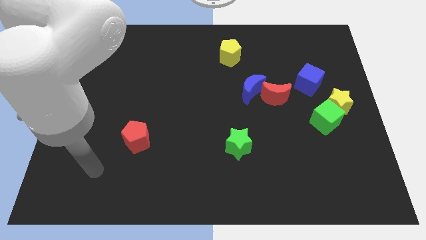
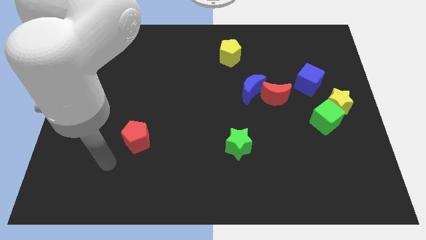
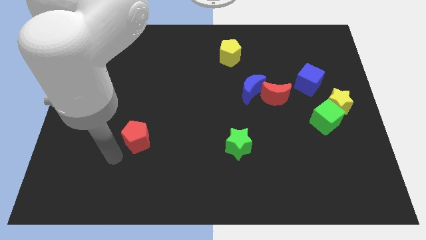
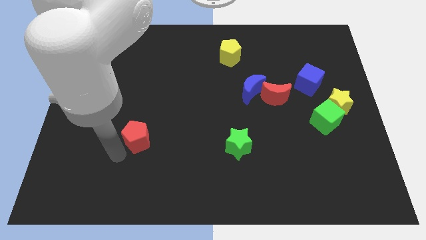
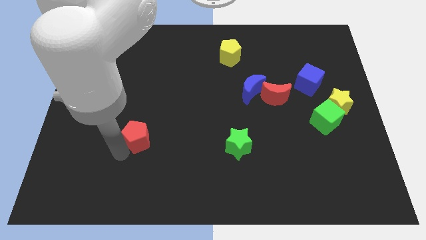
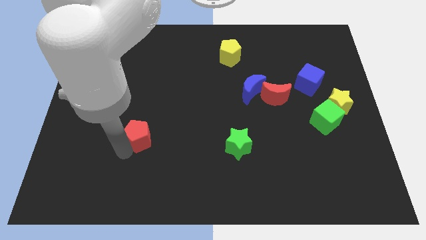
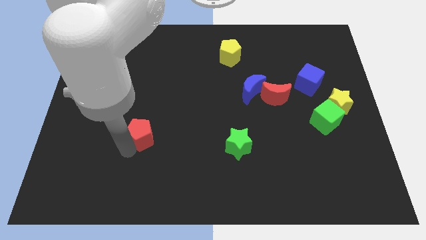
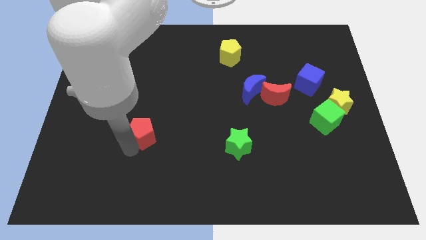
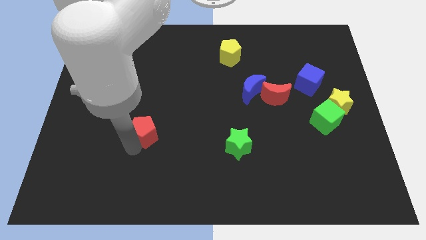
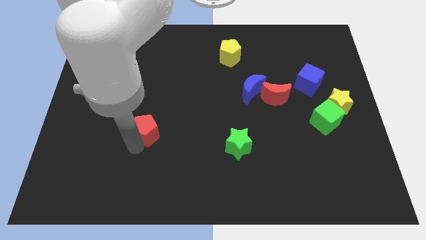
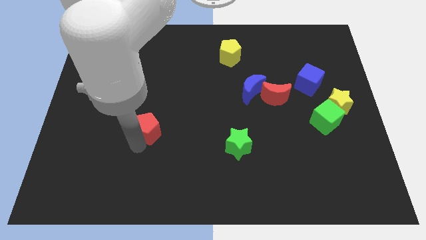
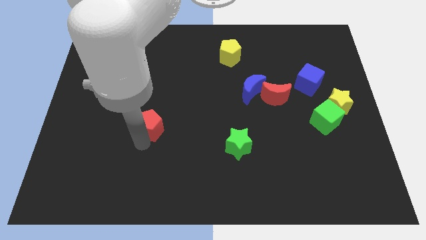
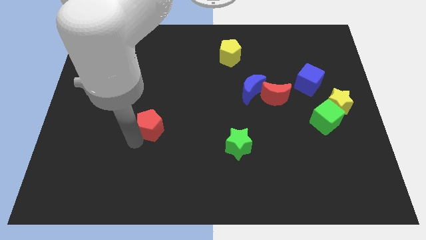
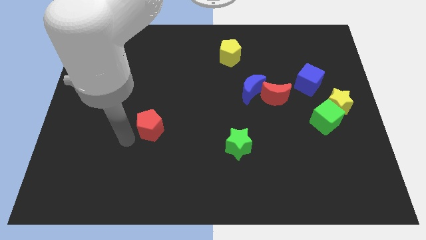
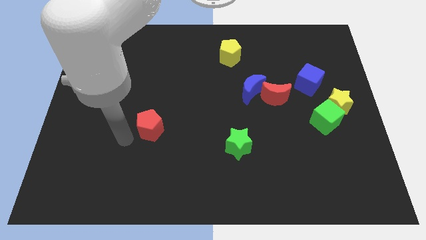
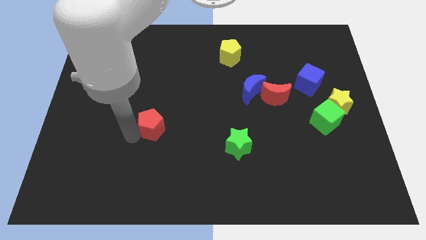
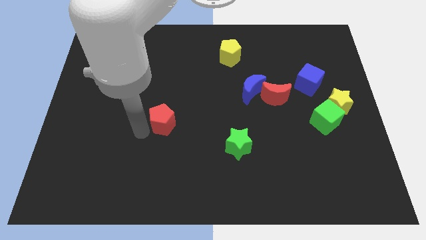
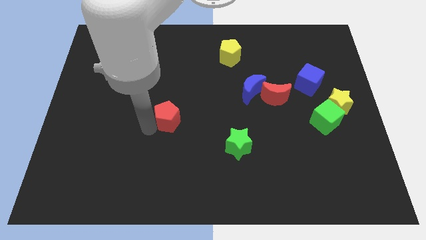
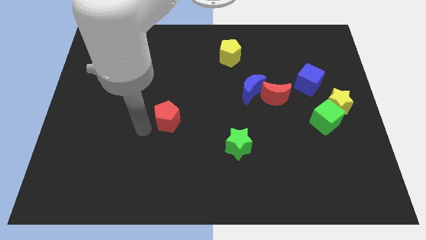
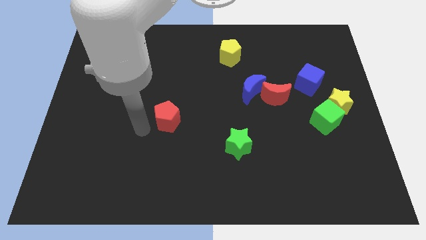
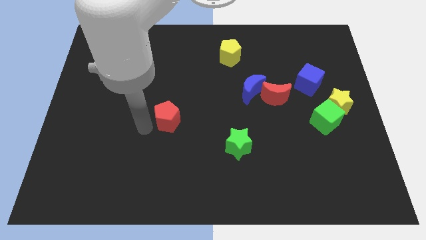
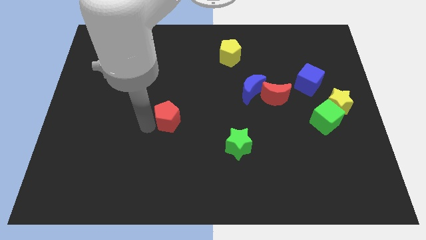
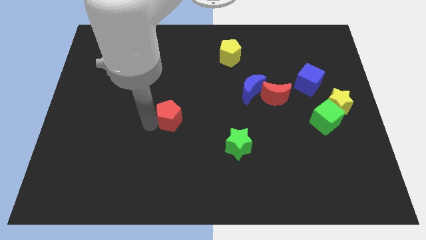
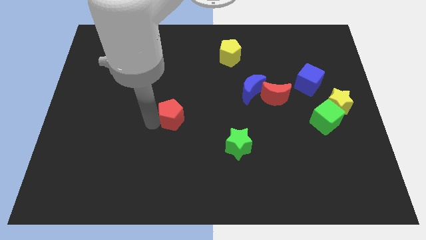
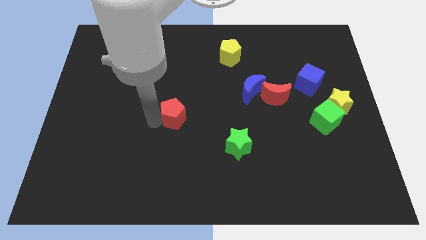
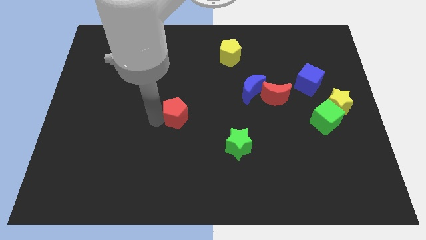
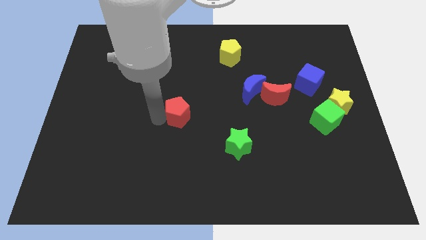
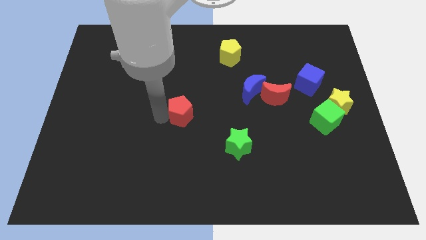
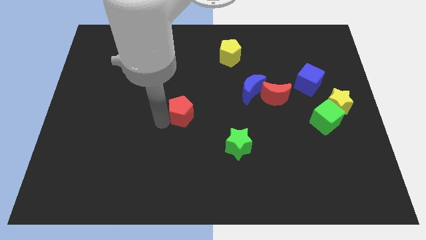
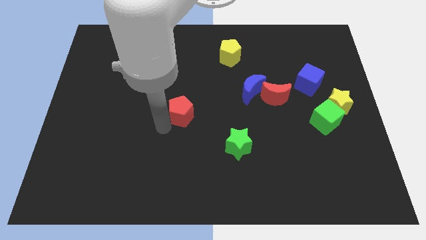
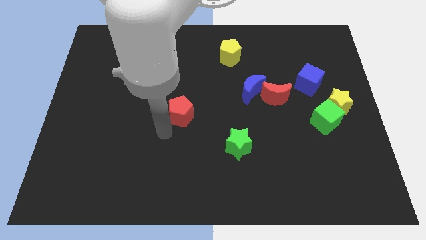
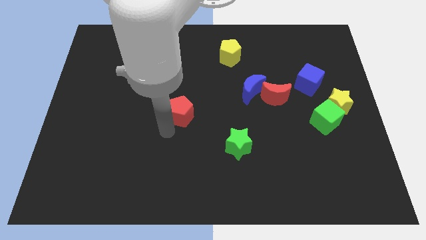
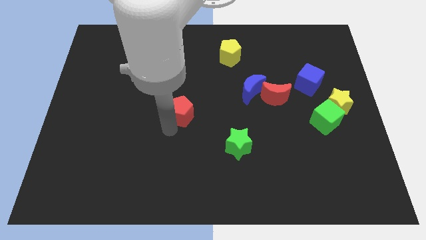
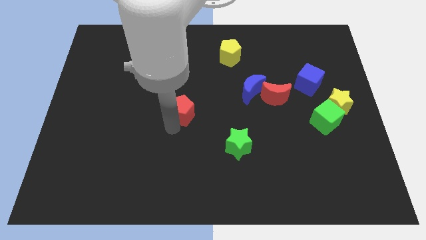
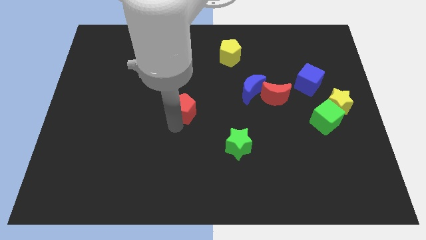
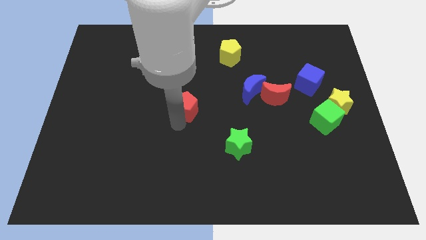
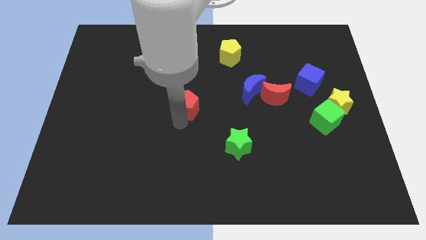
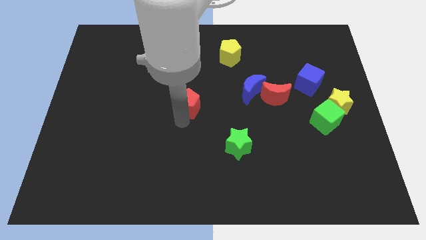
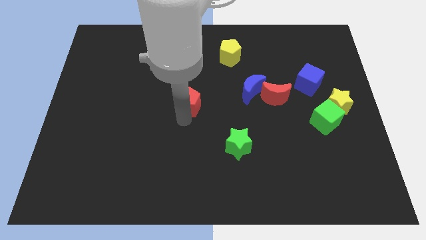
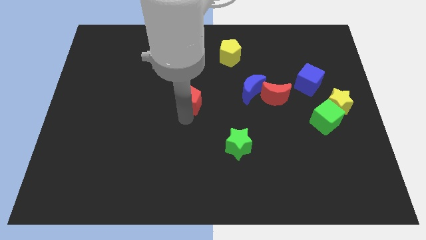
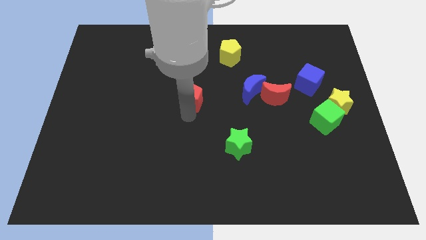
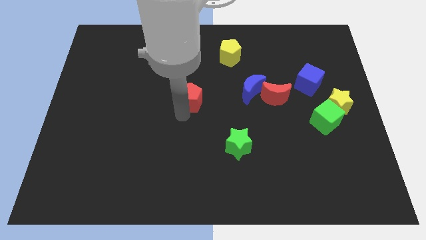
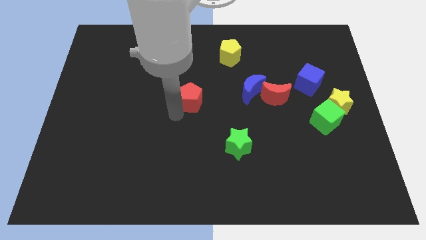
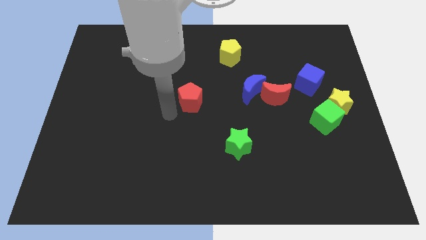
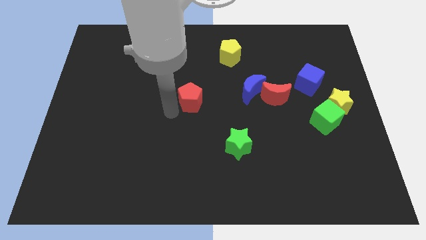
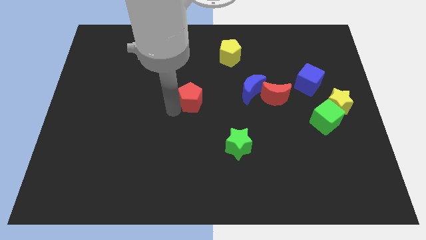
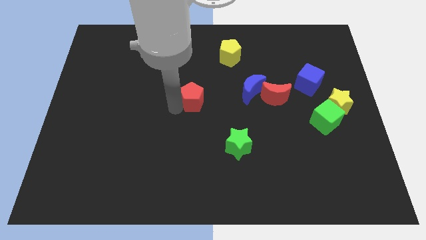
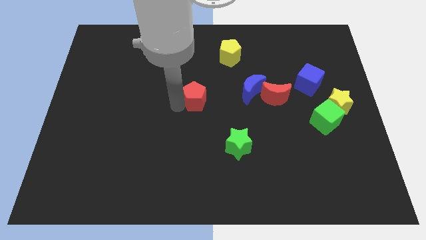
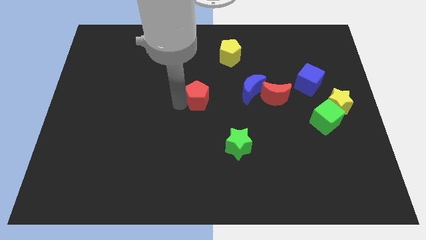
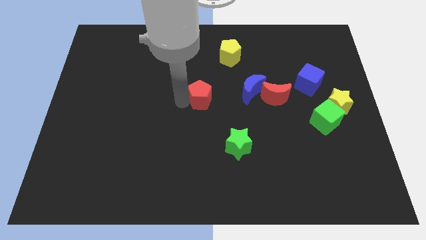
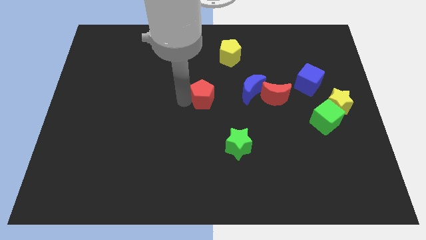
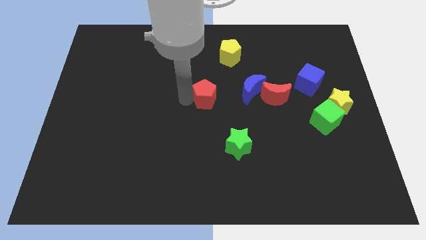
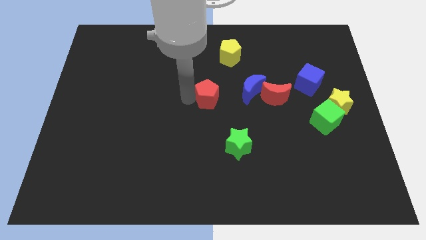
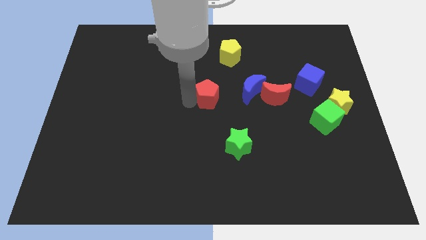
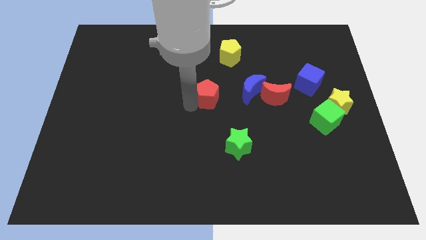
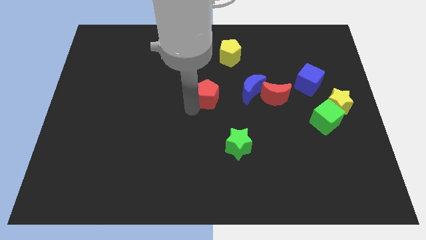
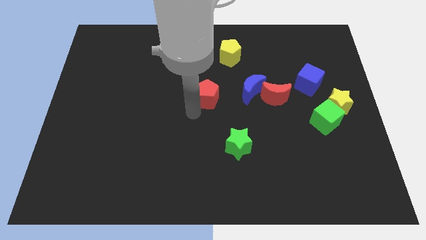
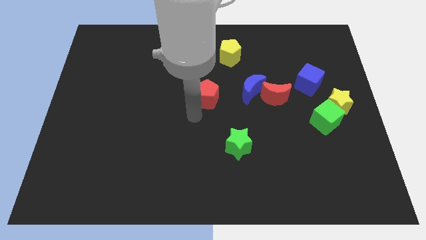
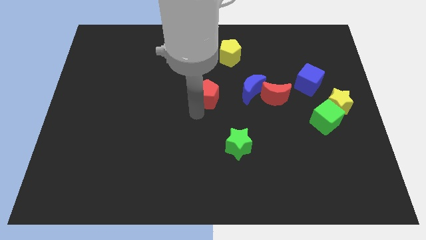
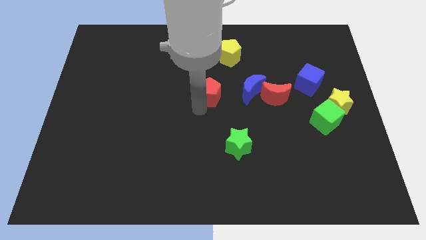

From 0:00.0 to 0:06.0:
move the red pentagon upwards and then to the right

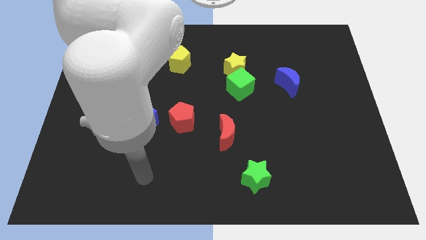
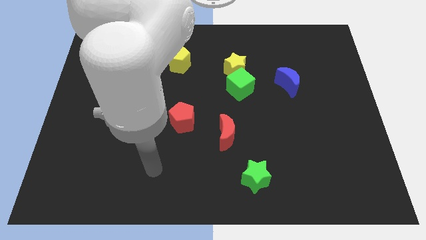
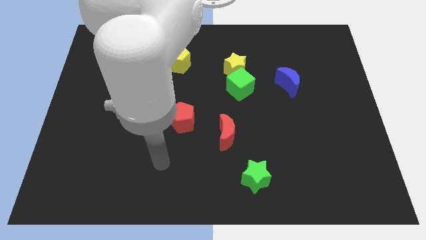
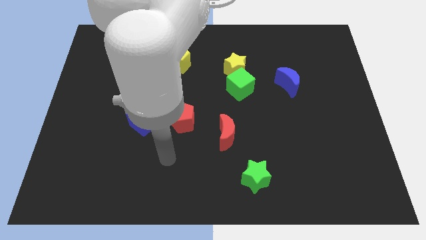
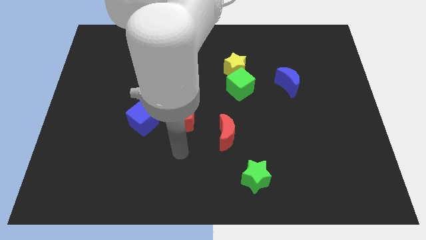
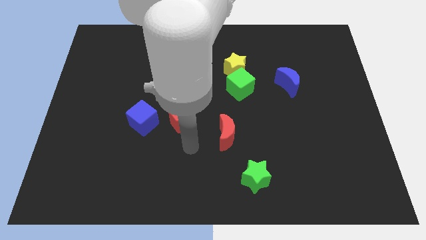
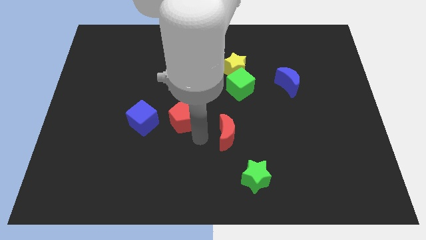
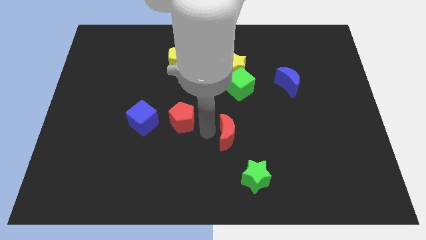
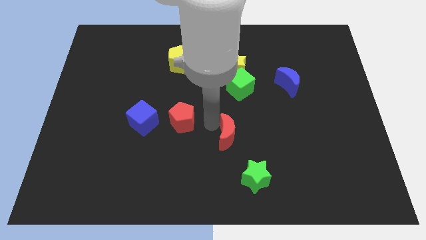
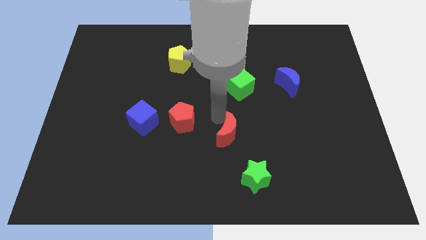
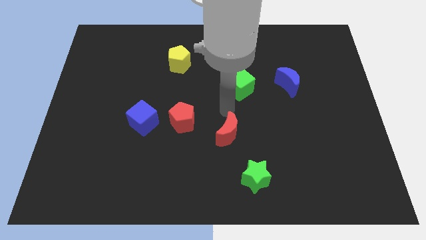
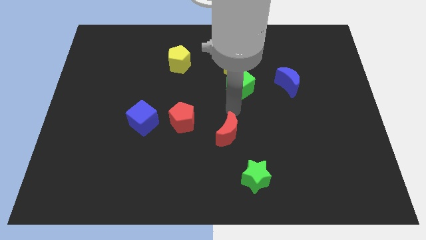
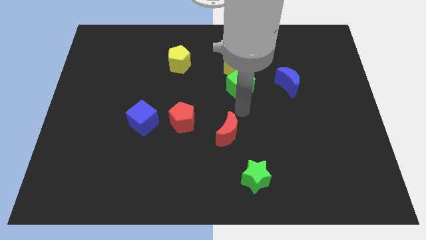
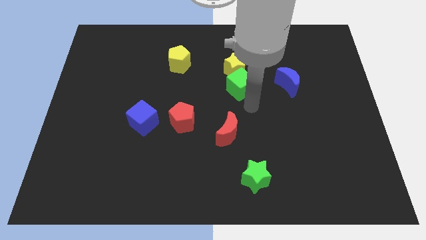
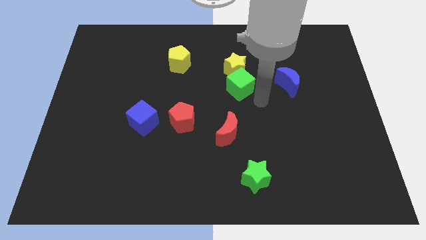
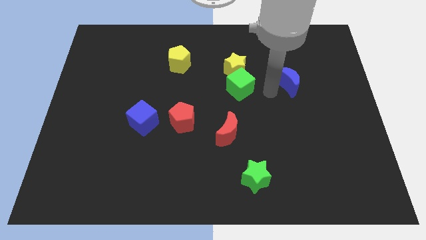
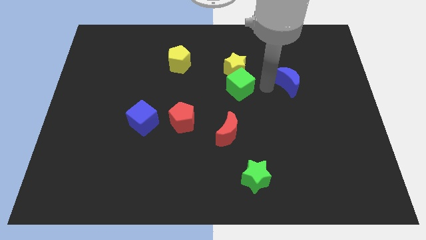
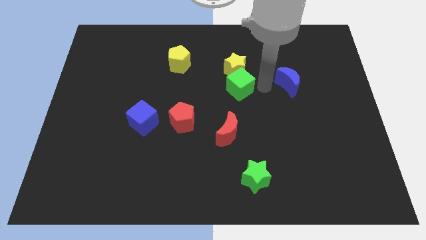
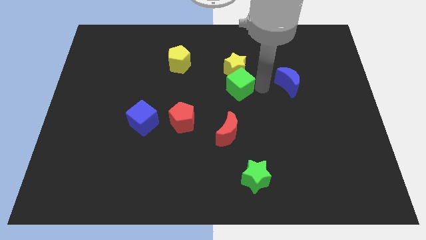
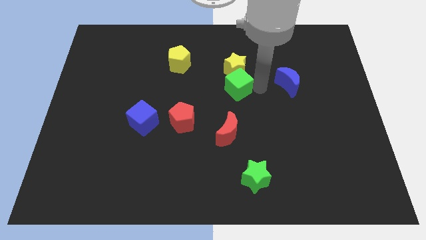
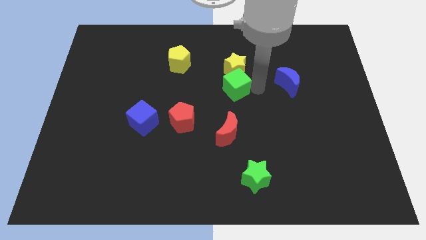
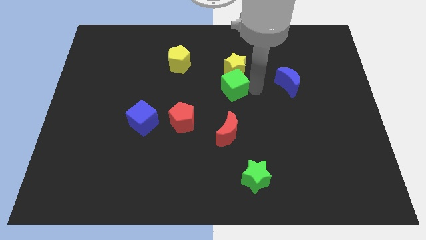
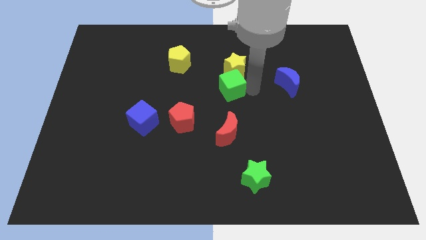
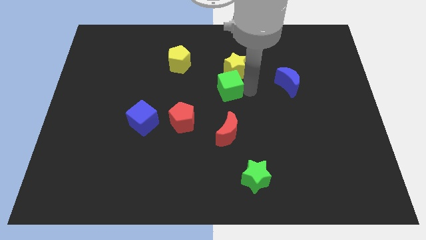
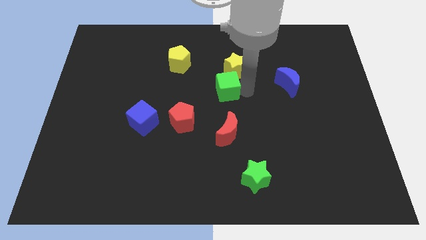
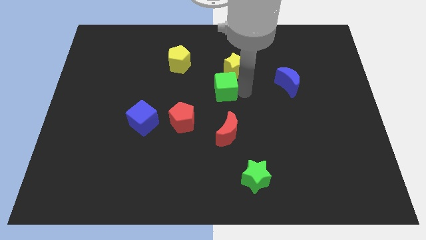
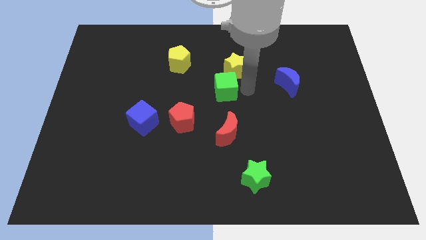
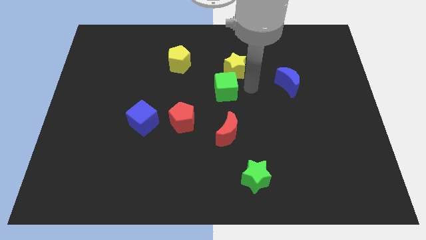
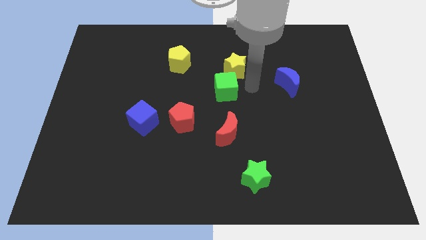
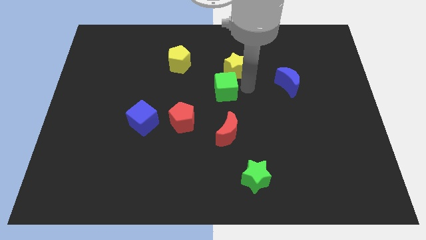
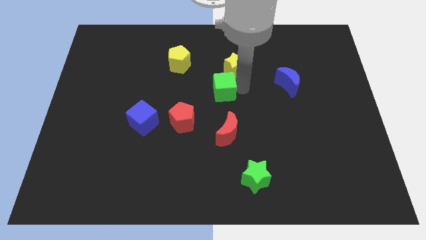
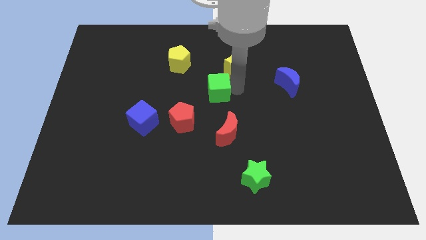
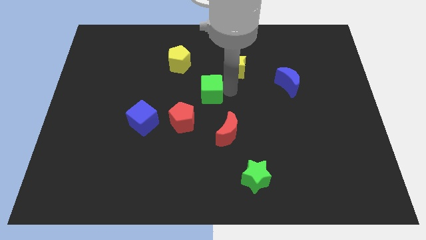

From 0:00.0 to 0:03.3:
slightly slide the green cube left
